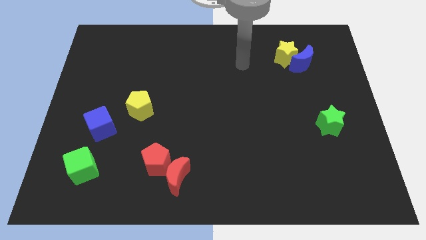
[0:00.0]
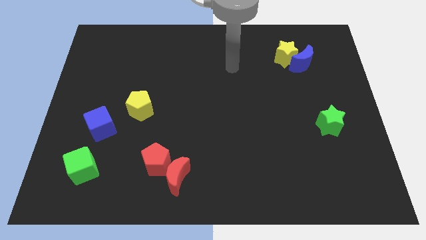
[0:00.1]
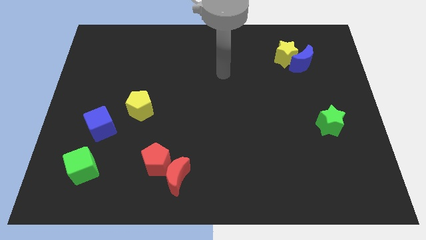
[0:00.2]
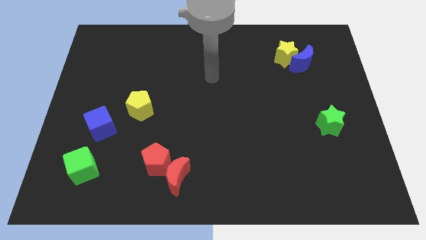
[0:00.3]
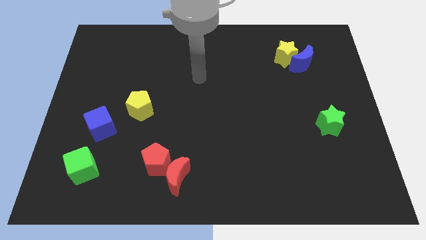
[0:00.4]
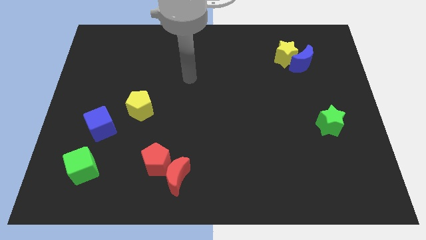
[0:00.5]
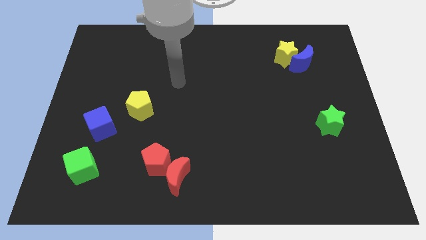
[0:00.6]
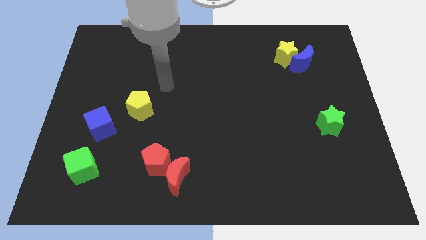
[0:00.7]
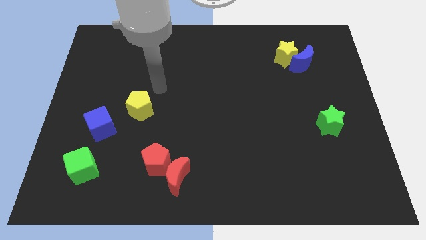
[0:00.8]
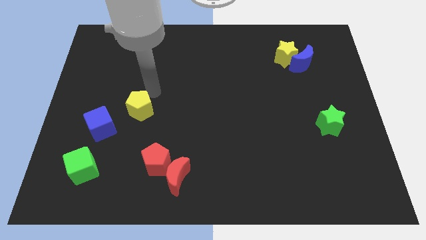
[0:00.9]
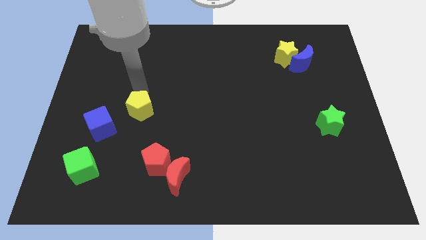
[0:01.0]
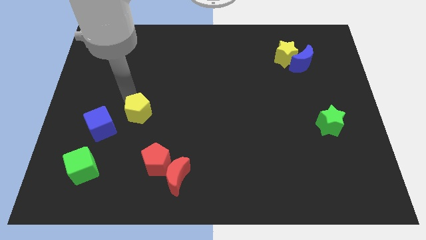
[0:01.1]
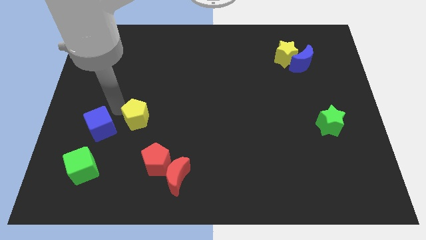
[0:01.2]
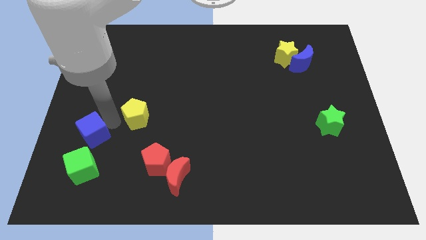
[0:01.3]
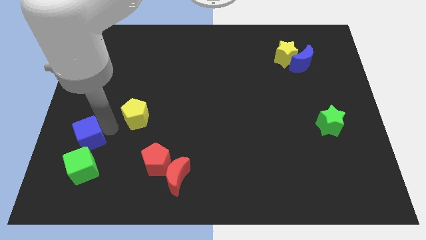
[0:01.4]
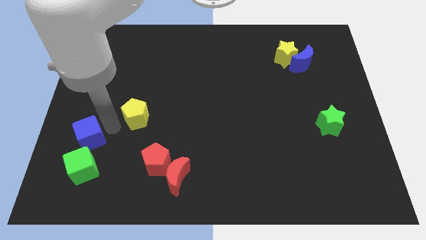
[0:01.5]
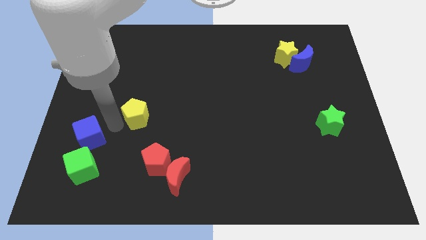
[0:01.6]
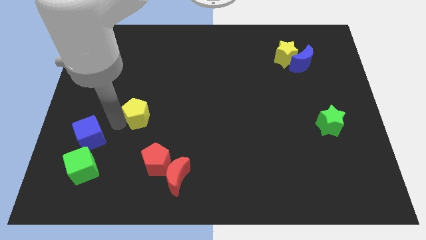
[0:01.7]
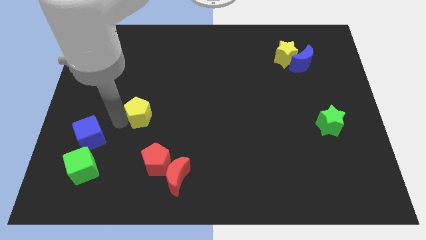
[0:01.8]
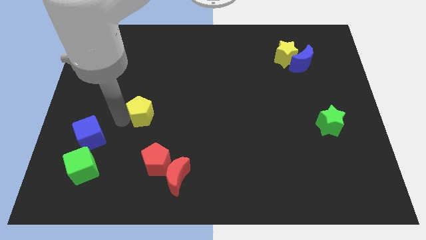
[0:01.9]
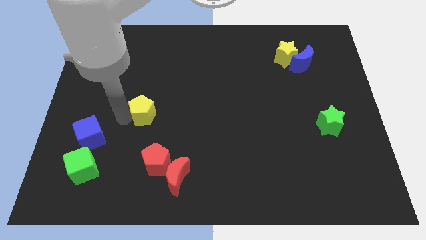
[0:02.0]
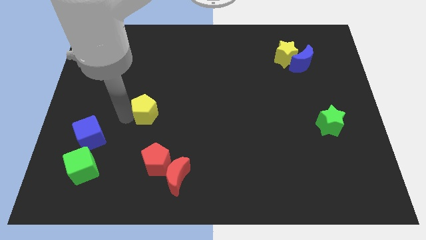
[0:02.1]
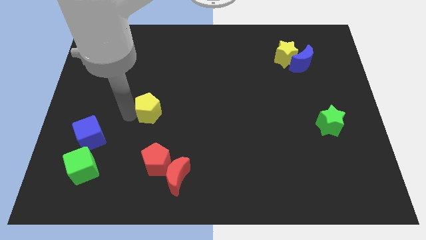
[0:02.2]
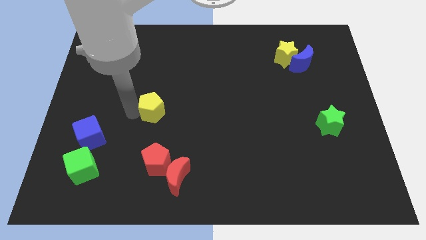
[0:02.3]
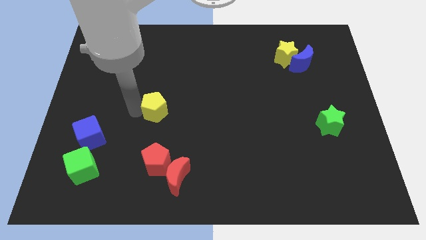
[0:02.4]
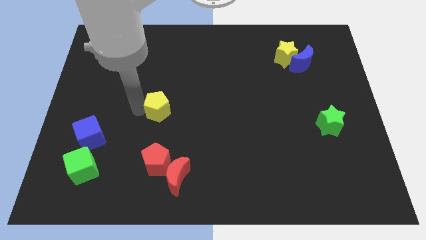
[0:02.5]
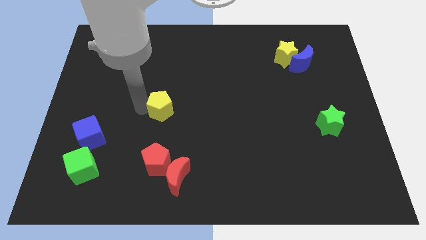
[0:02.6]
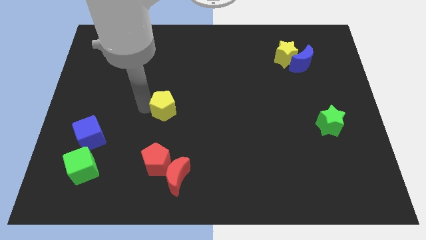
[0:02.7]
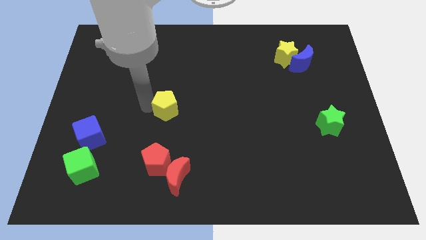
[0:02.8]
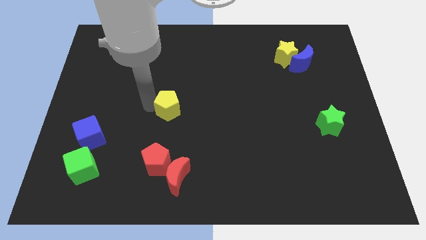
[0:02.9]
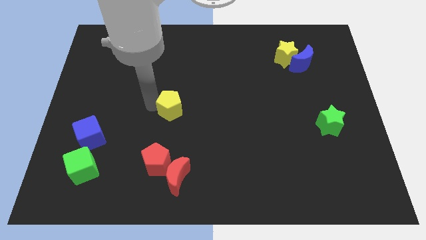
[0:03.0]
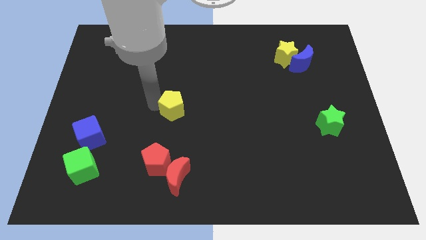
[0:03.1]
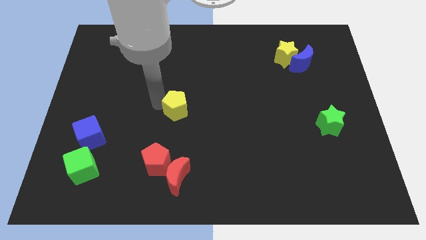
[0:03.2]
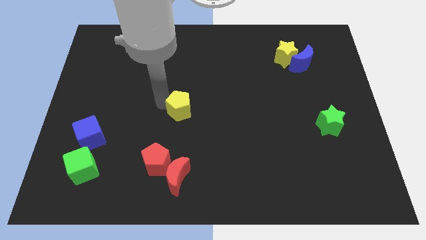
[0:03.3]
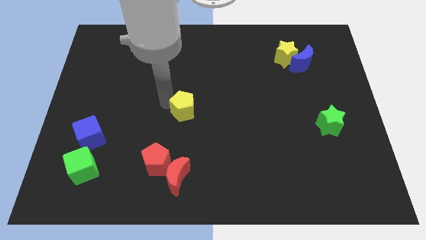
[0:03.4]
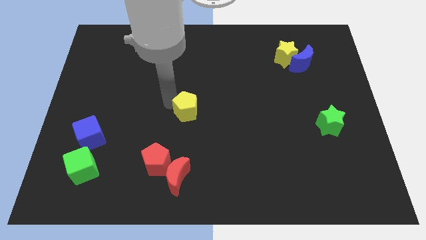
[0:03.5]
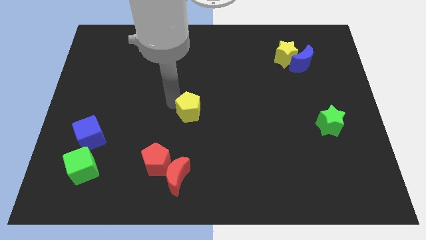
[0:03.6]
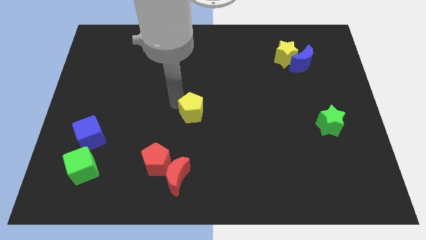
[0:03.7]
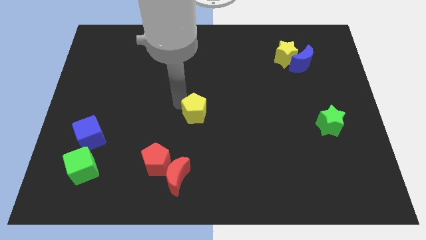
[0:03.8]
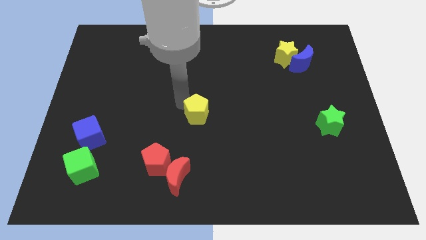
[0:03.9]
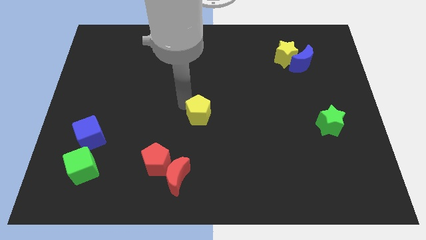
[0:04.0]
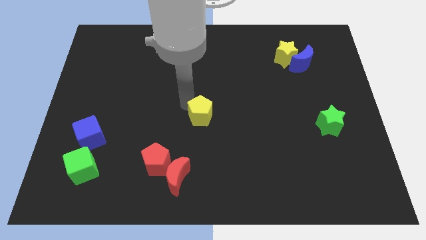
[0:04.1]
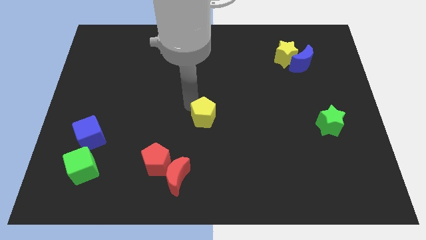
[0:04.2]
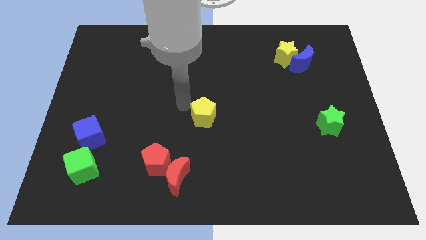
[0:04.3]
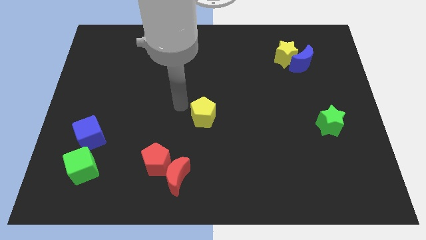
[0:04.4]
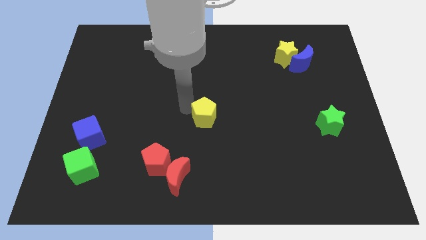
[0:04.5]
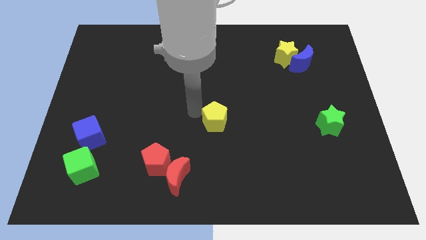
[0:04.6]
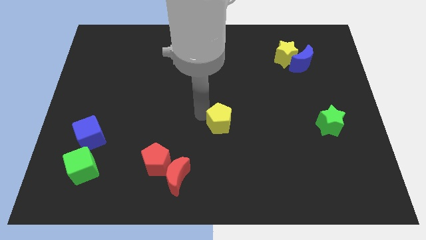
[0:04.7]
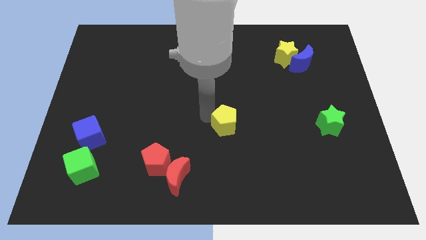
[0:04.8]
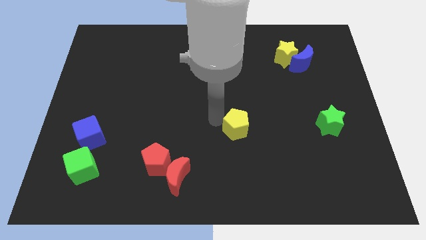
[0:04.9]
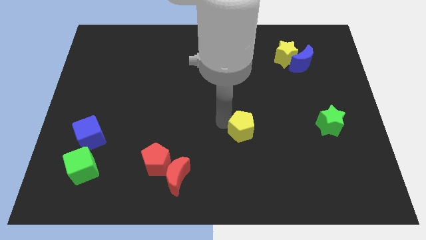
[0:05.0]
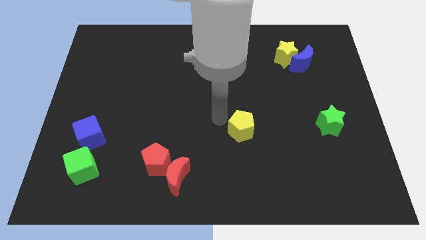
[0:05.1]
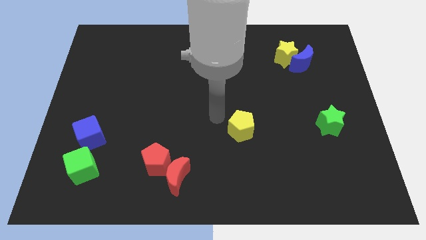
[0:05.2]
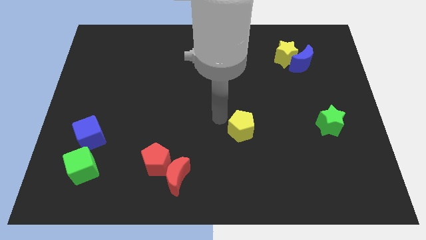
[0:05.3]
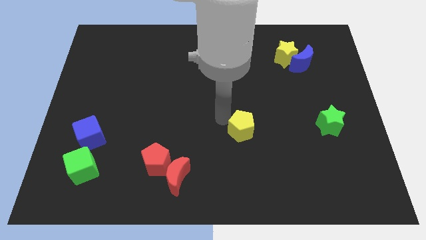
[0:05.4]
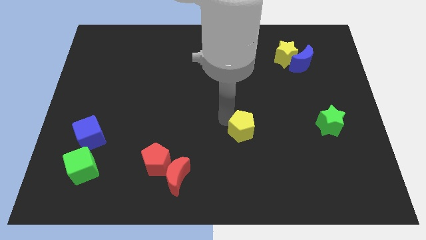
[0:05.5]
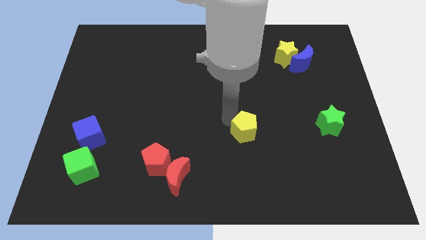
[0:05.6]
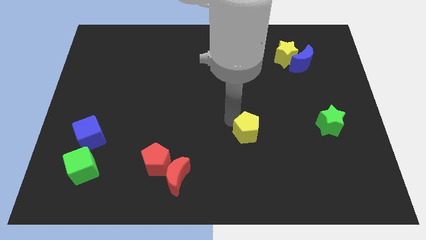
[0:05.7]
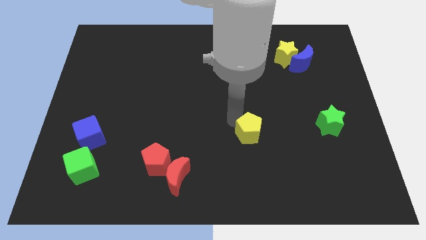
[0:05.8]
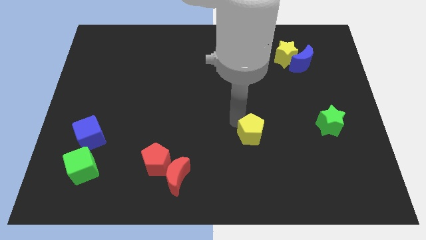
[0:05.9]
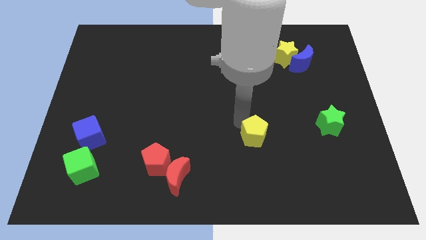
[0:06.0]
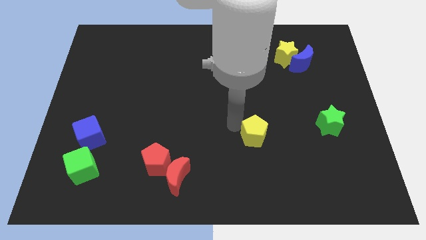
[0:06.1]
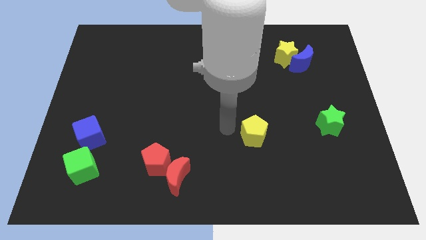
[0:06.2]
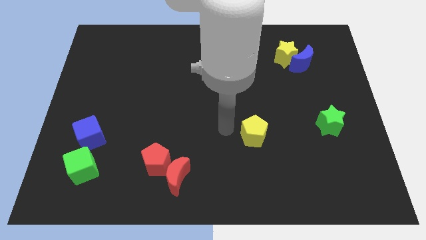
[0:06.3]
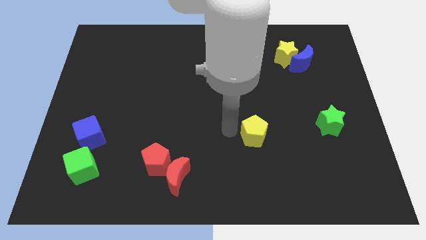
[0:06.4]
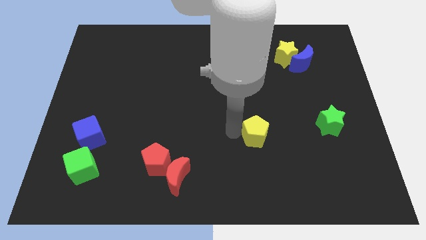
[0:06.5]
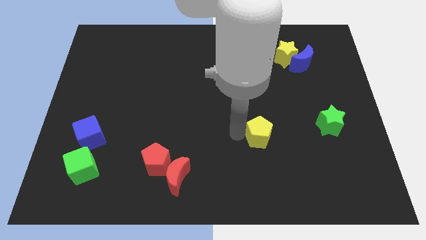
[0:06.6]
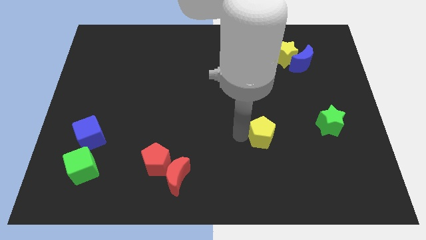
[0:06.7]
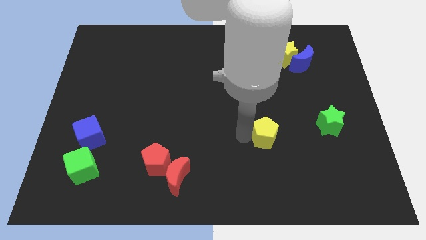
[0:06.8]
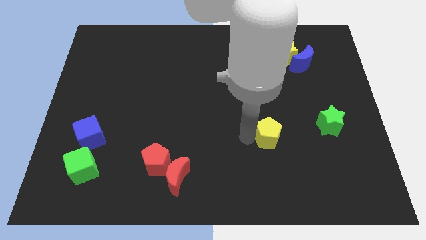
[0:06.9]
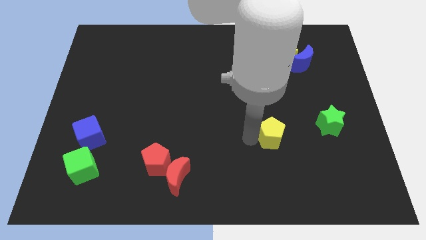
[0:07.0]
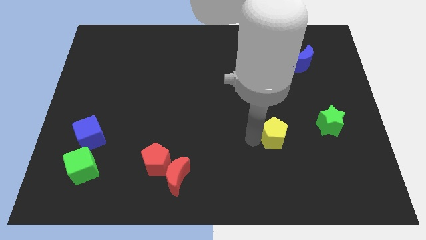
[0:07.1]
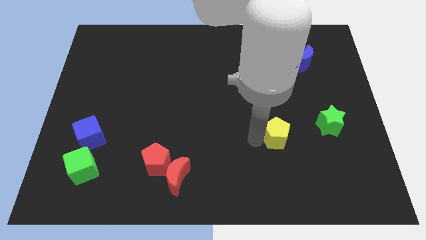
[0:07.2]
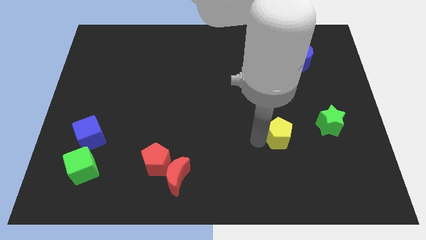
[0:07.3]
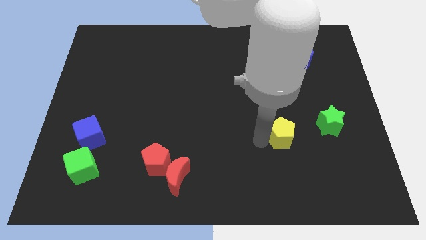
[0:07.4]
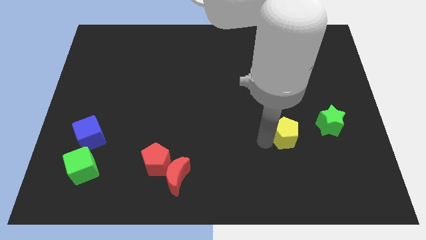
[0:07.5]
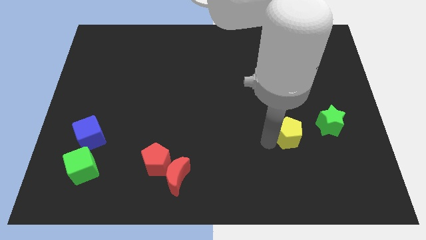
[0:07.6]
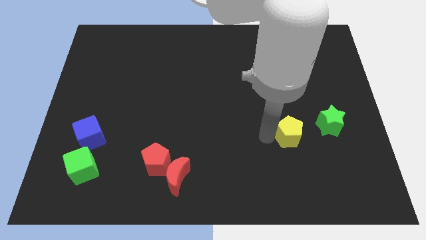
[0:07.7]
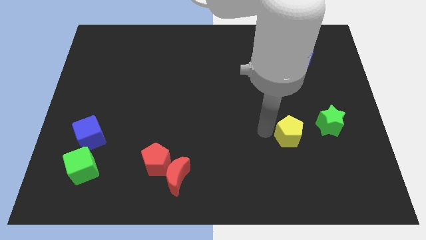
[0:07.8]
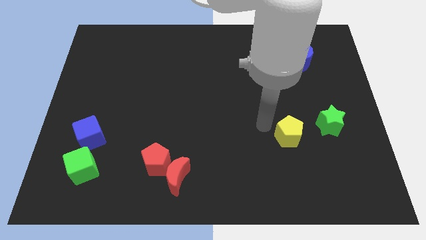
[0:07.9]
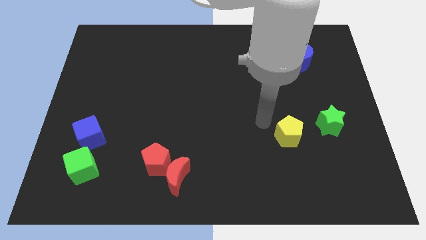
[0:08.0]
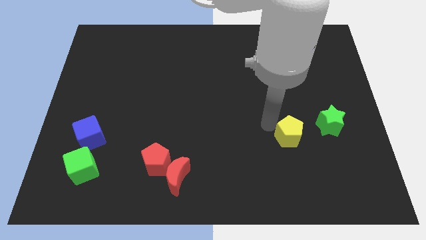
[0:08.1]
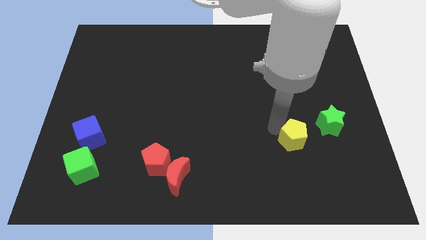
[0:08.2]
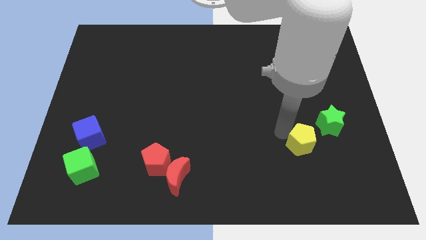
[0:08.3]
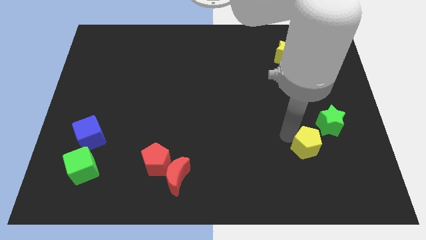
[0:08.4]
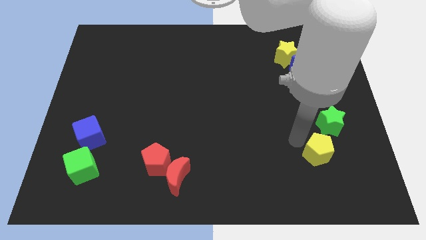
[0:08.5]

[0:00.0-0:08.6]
push the yellow pentagon to the bottom side of the green star
